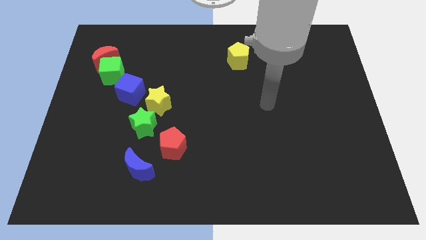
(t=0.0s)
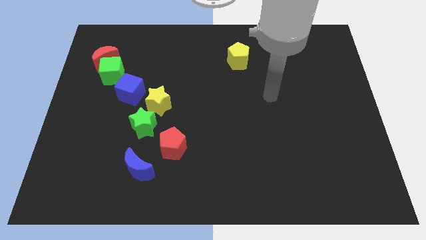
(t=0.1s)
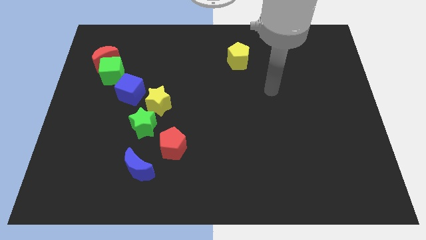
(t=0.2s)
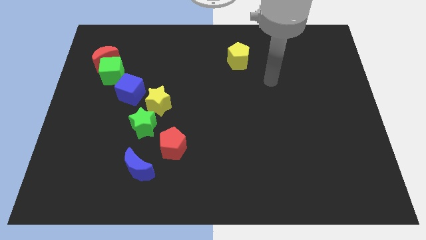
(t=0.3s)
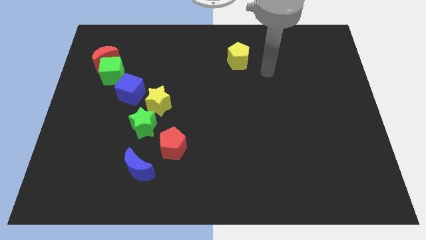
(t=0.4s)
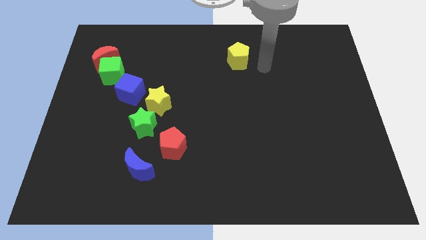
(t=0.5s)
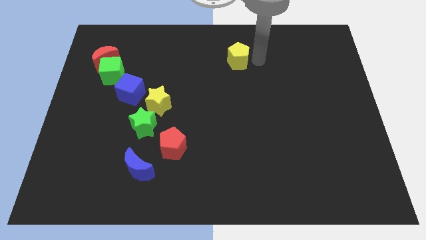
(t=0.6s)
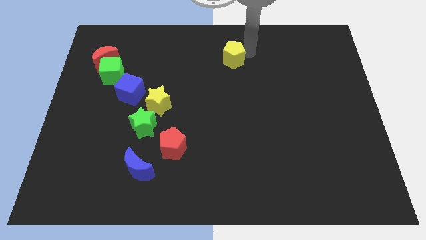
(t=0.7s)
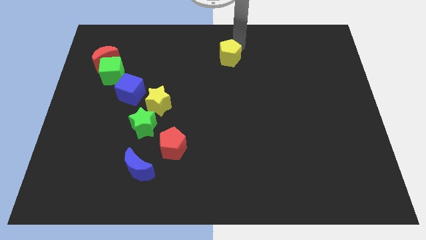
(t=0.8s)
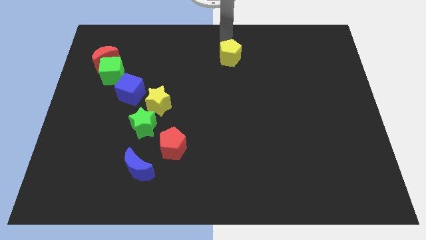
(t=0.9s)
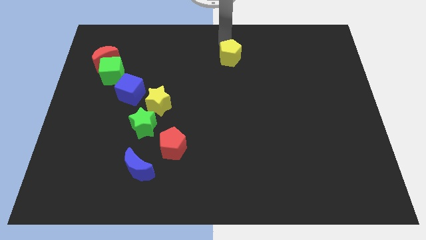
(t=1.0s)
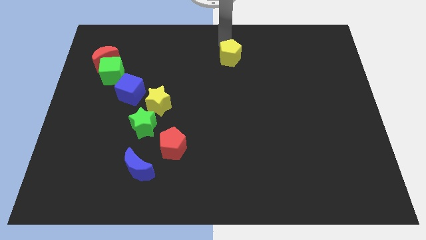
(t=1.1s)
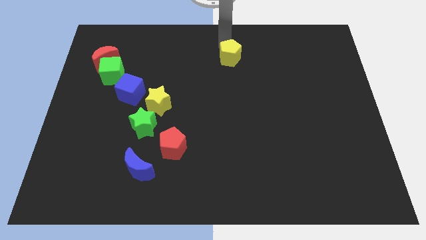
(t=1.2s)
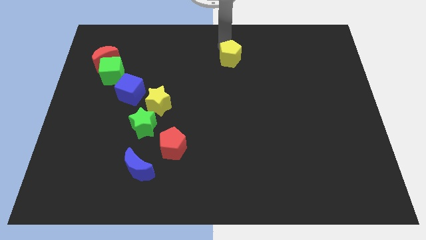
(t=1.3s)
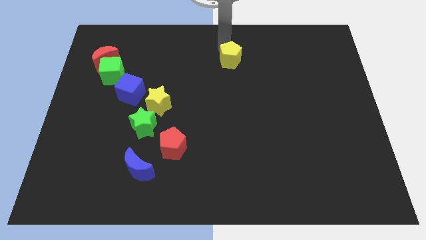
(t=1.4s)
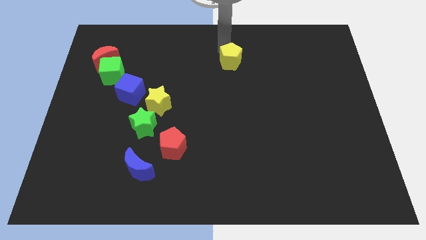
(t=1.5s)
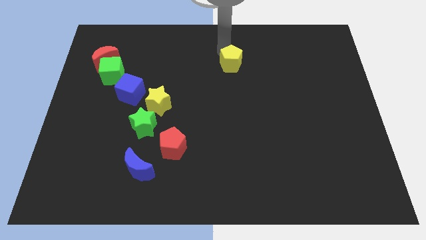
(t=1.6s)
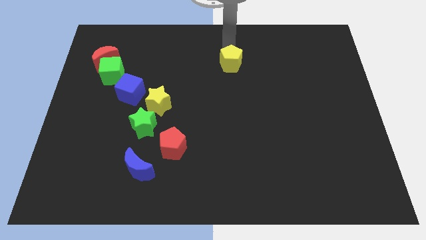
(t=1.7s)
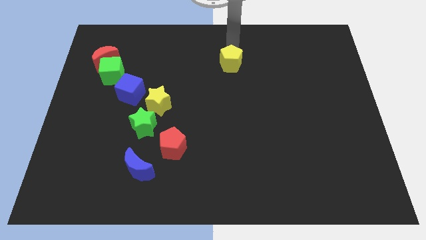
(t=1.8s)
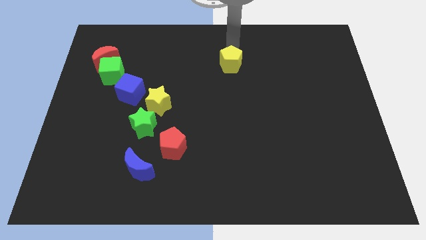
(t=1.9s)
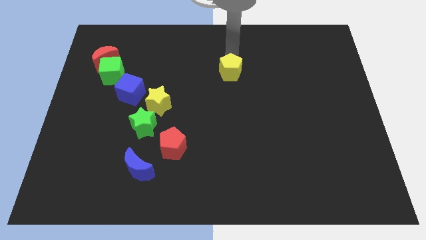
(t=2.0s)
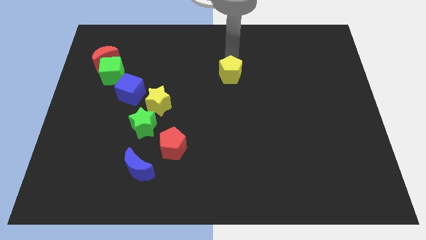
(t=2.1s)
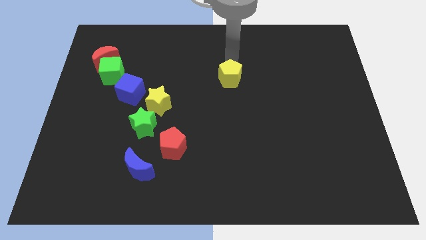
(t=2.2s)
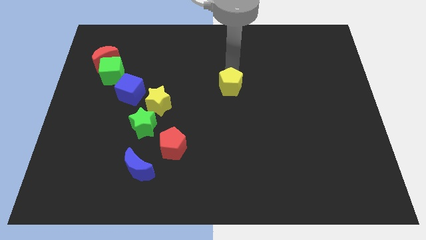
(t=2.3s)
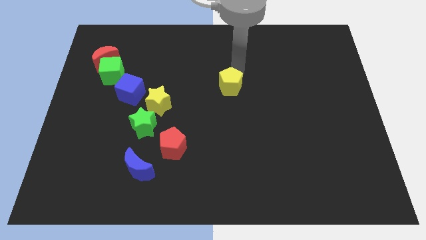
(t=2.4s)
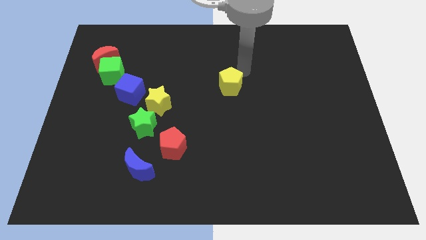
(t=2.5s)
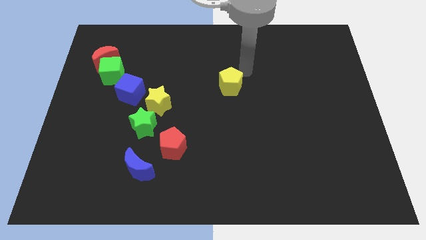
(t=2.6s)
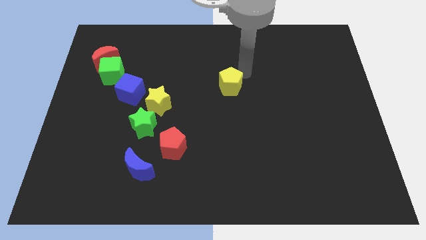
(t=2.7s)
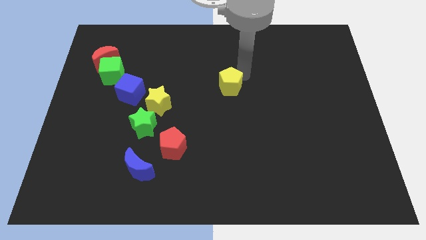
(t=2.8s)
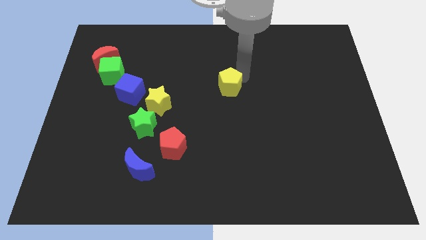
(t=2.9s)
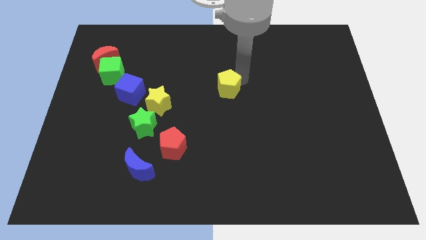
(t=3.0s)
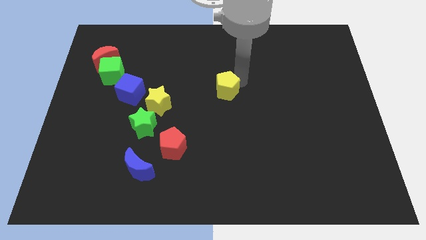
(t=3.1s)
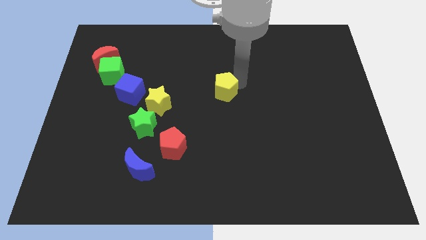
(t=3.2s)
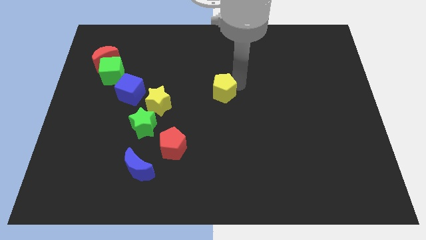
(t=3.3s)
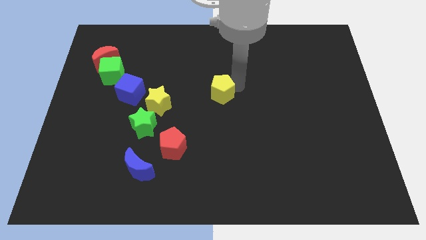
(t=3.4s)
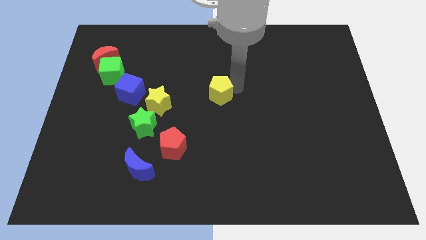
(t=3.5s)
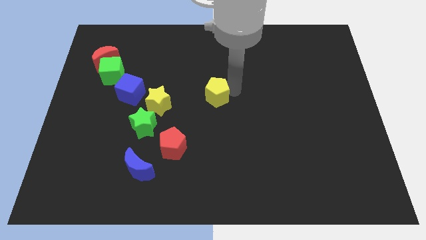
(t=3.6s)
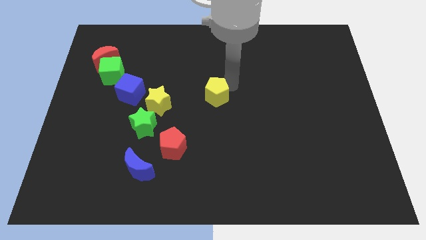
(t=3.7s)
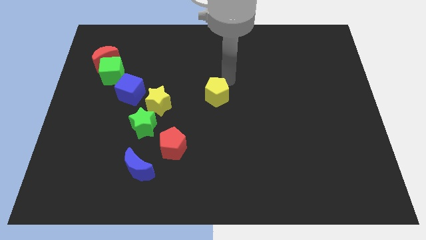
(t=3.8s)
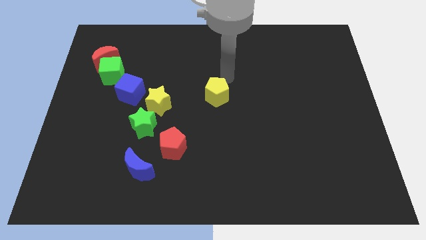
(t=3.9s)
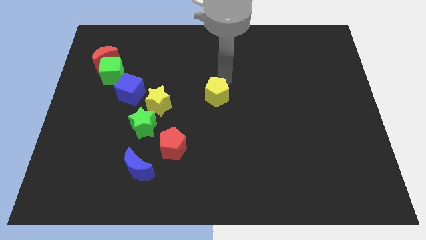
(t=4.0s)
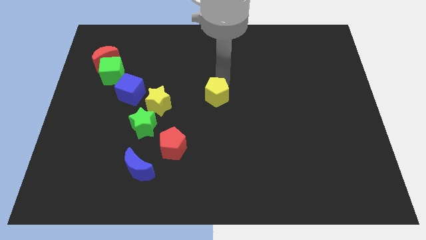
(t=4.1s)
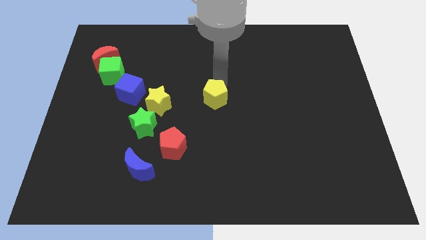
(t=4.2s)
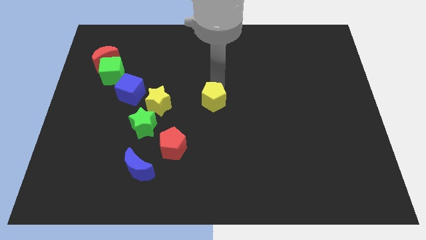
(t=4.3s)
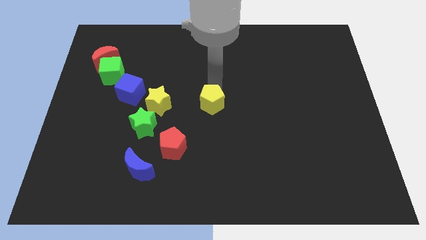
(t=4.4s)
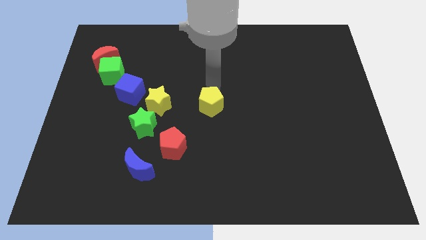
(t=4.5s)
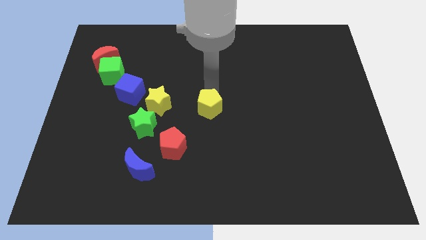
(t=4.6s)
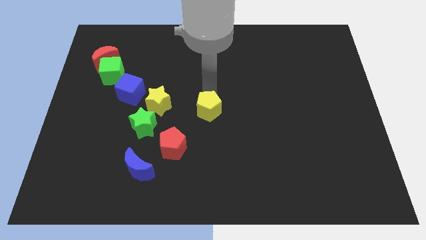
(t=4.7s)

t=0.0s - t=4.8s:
put the yellow pentagon to the top right side of the red pentagon

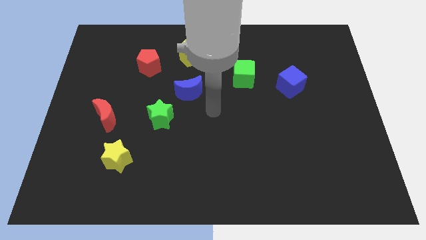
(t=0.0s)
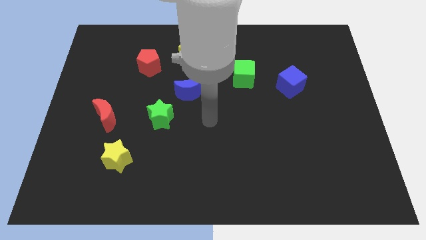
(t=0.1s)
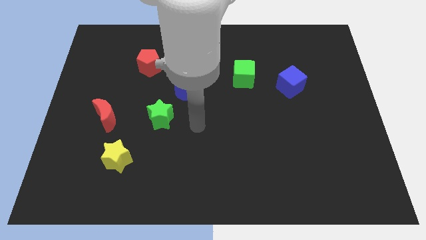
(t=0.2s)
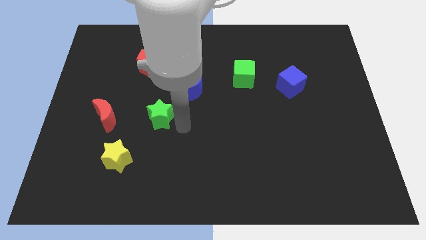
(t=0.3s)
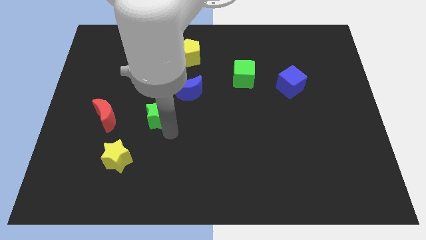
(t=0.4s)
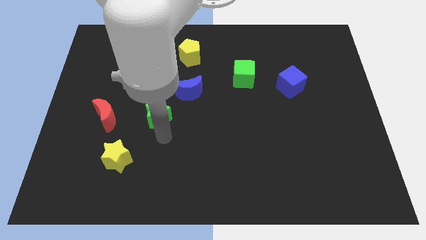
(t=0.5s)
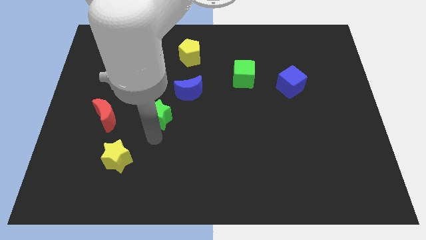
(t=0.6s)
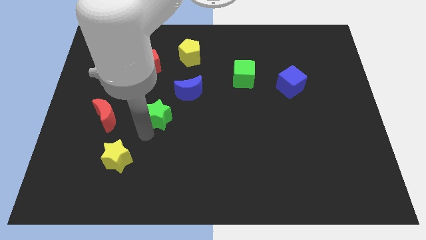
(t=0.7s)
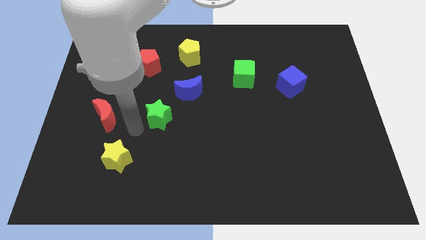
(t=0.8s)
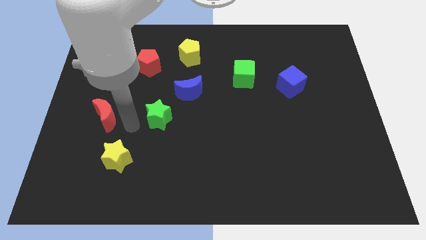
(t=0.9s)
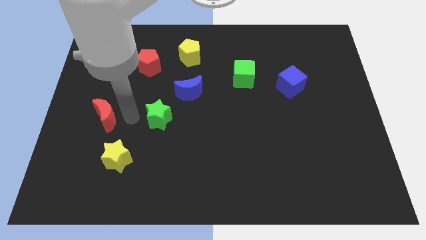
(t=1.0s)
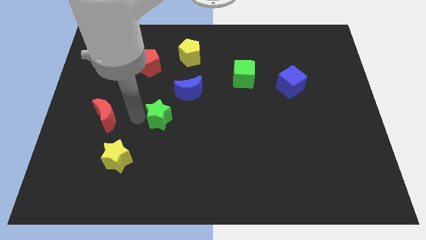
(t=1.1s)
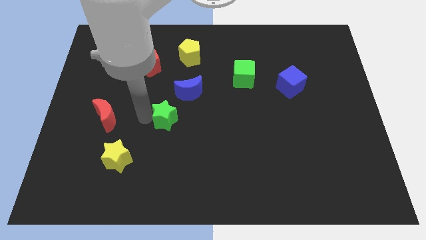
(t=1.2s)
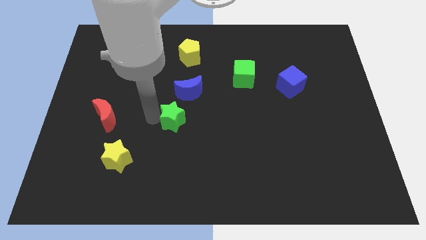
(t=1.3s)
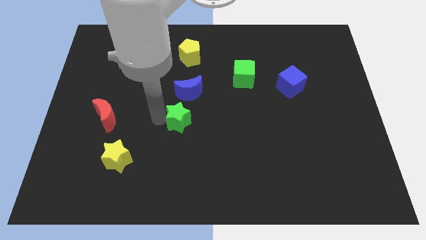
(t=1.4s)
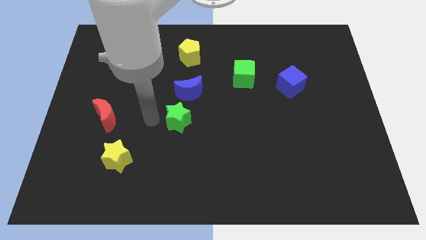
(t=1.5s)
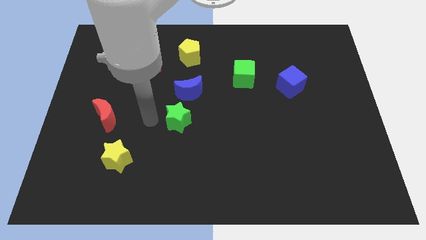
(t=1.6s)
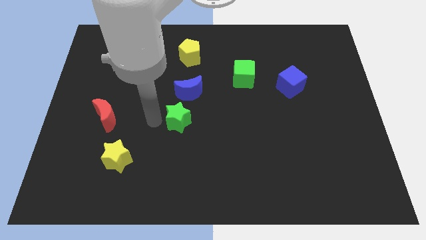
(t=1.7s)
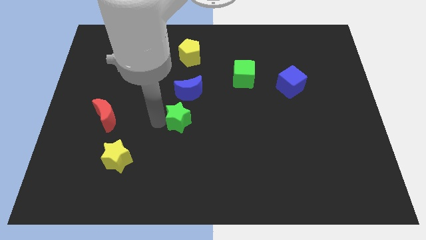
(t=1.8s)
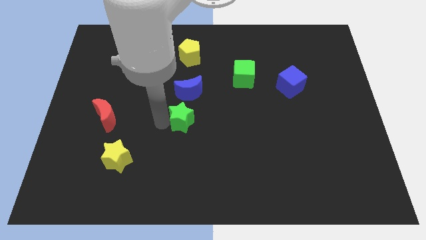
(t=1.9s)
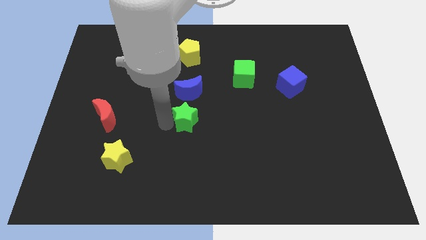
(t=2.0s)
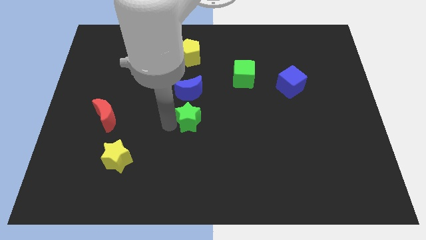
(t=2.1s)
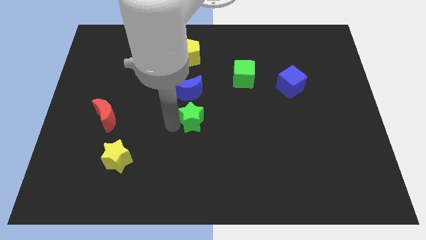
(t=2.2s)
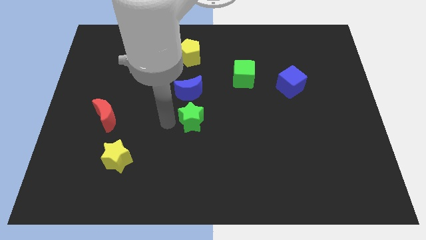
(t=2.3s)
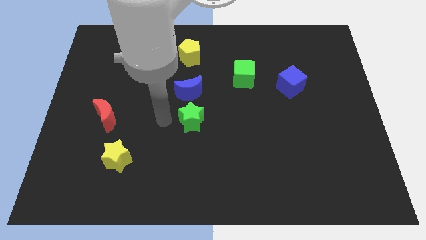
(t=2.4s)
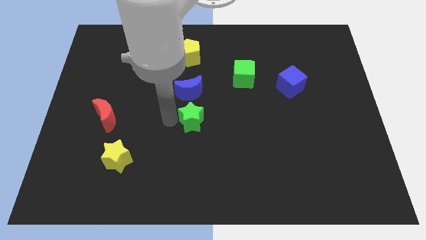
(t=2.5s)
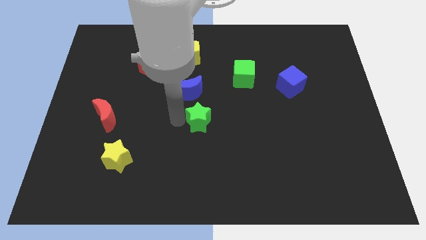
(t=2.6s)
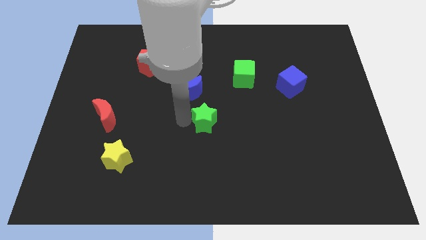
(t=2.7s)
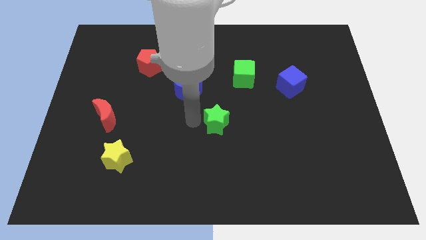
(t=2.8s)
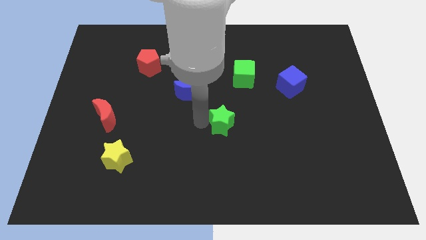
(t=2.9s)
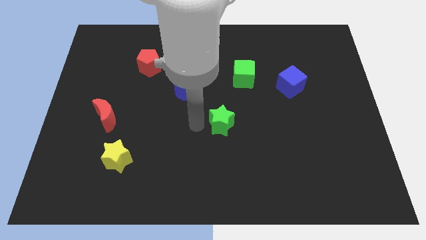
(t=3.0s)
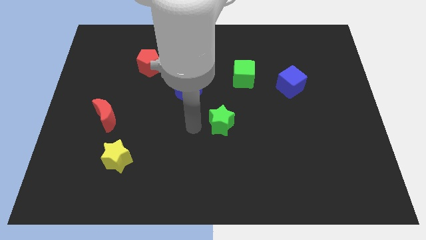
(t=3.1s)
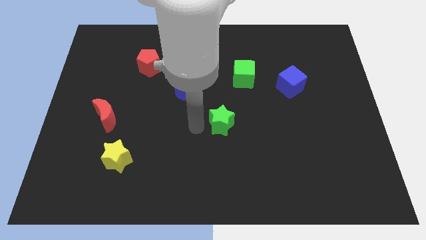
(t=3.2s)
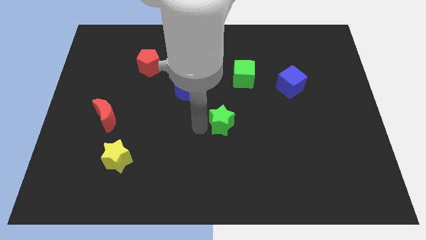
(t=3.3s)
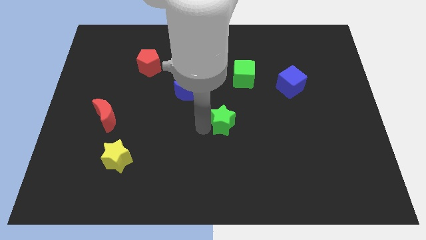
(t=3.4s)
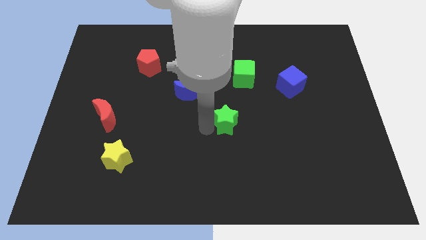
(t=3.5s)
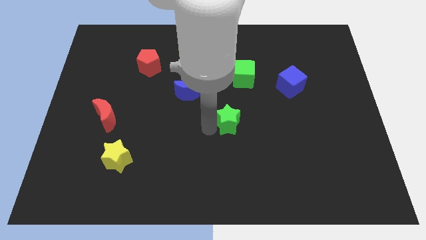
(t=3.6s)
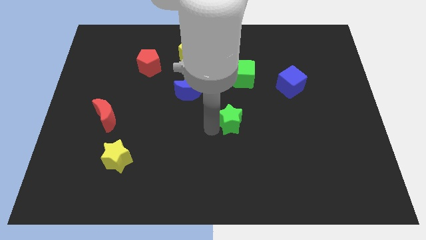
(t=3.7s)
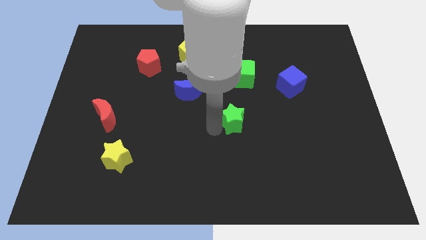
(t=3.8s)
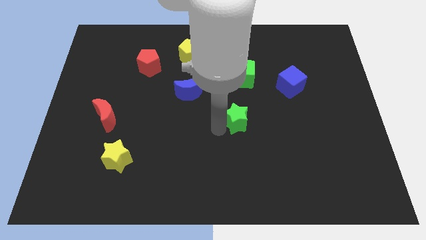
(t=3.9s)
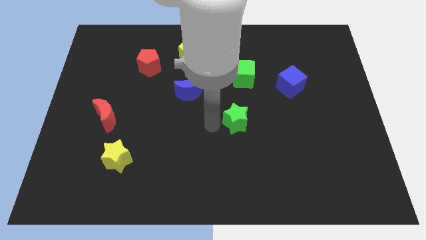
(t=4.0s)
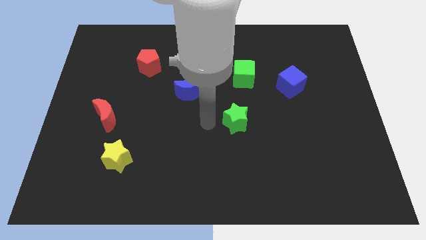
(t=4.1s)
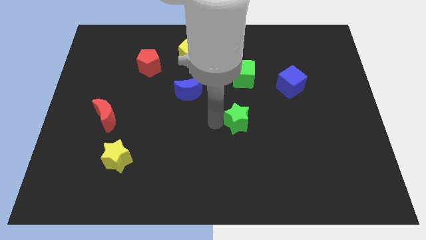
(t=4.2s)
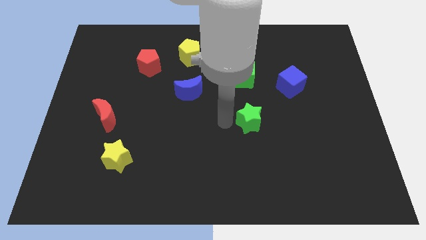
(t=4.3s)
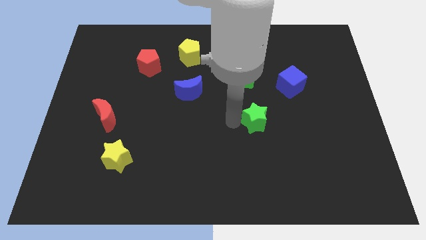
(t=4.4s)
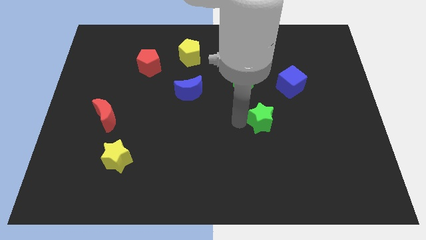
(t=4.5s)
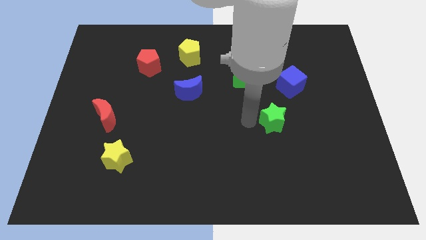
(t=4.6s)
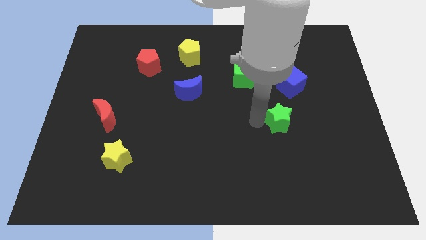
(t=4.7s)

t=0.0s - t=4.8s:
push the green star to the bottom of the blue cube
